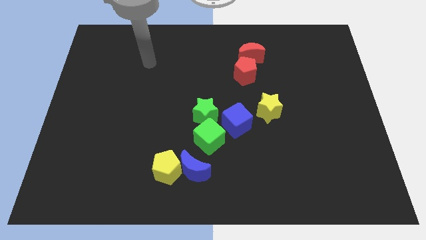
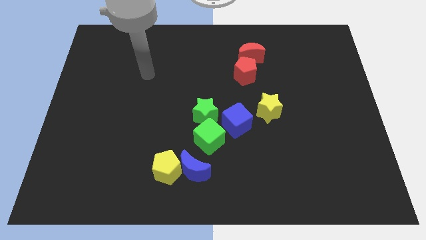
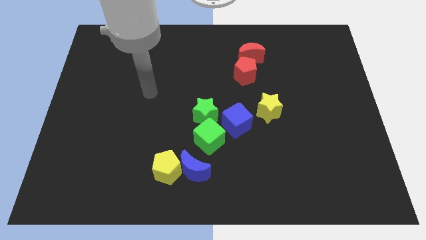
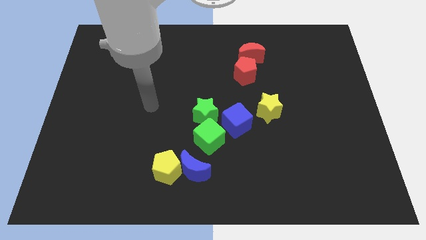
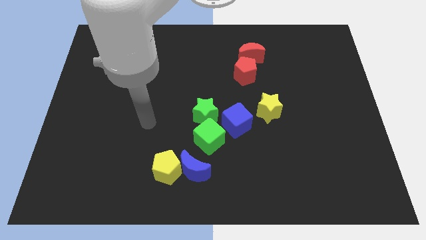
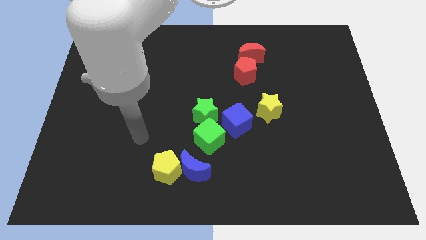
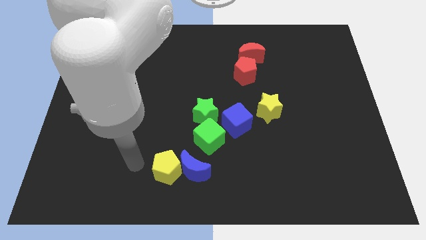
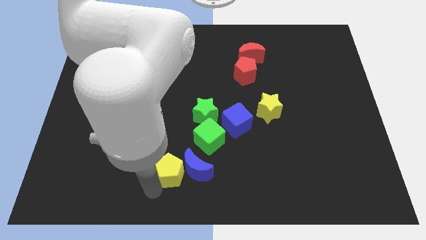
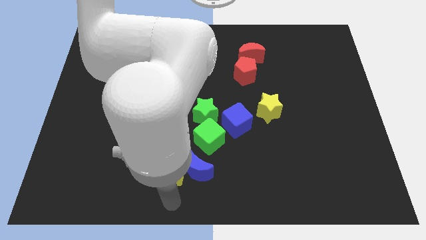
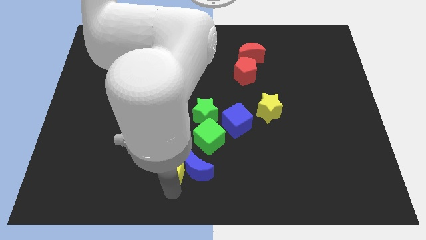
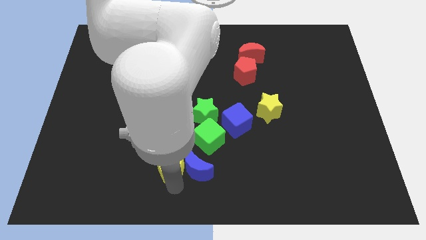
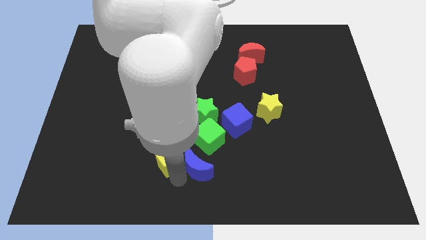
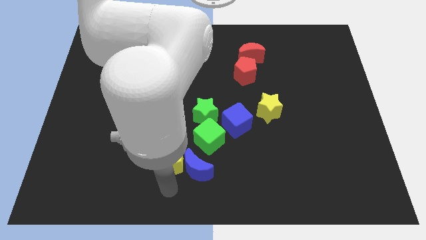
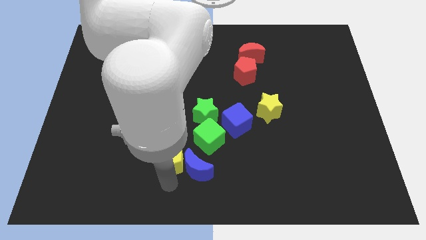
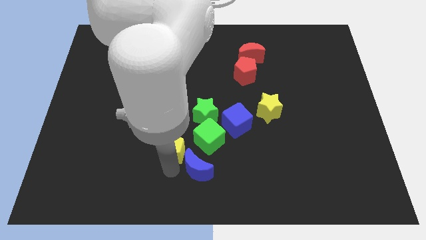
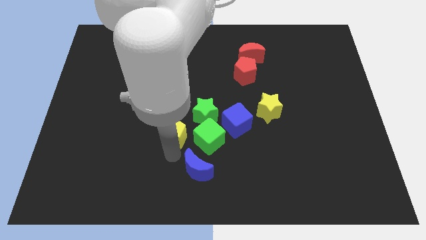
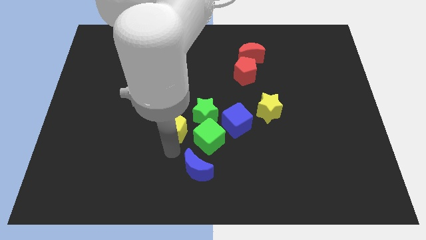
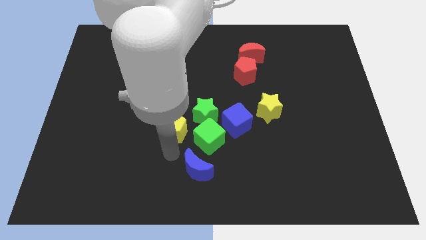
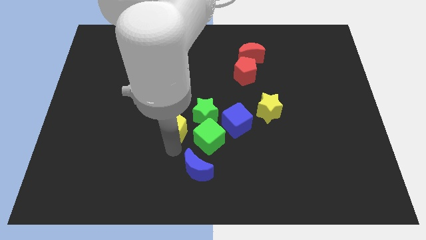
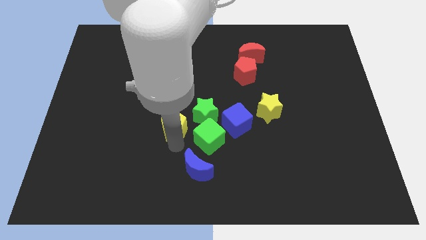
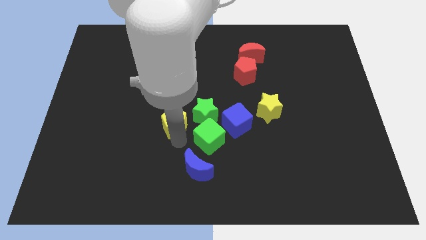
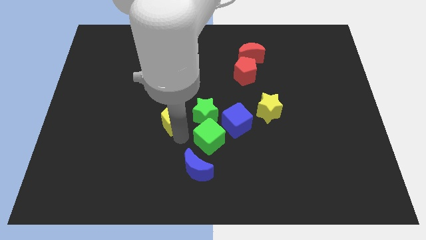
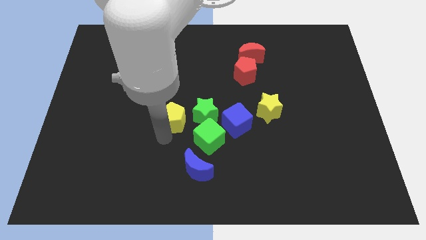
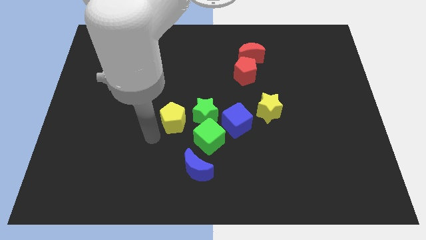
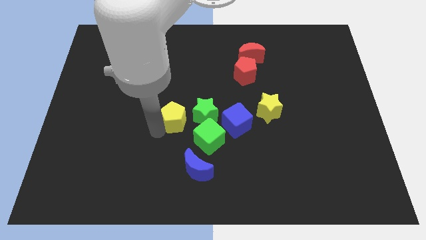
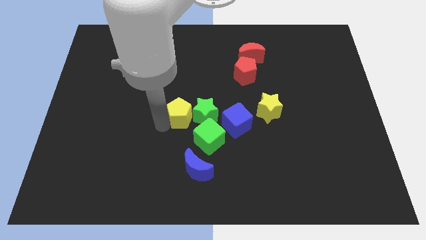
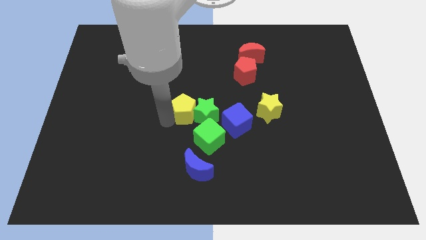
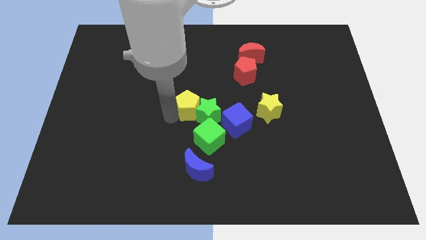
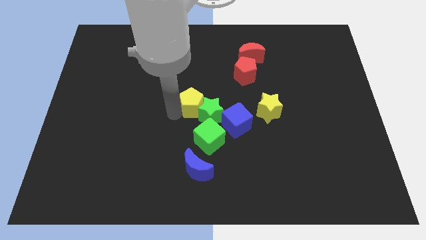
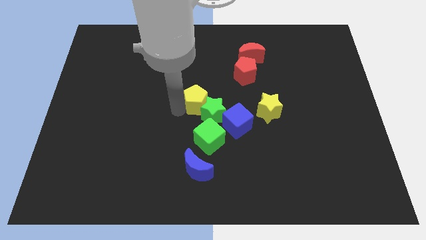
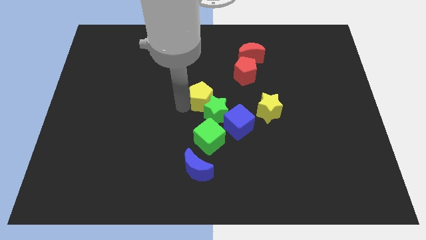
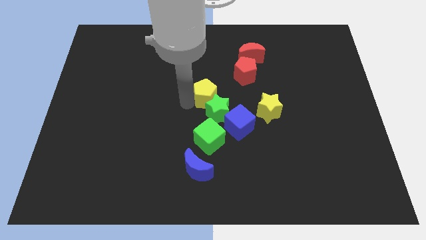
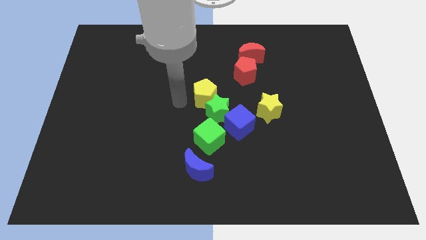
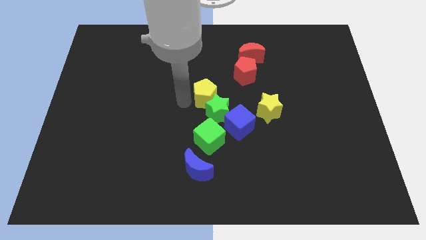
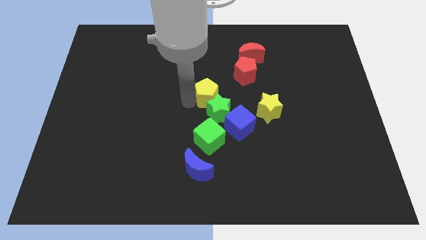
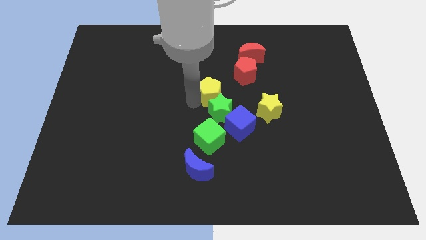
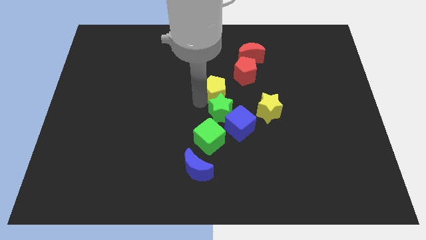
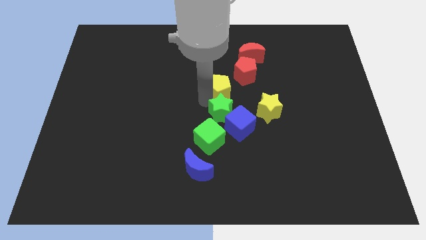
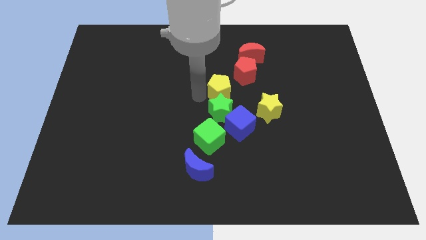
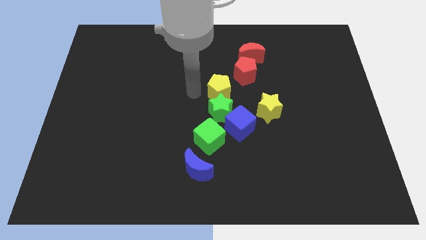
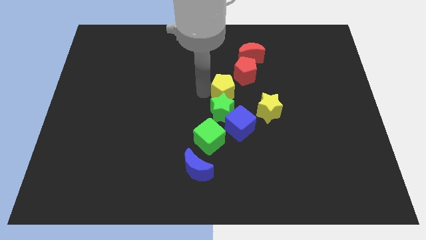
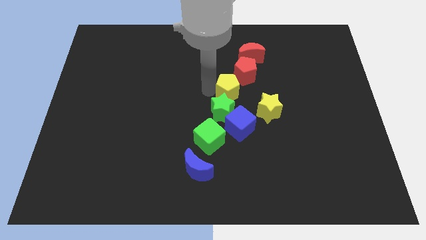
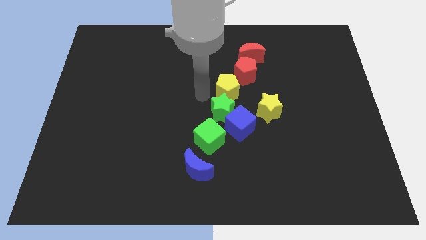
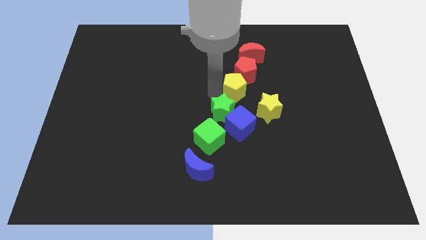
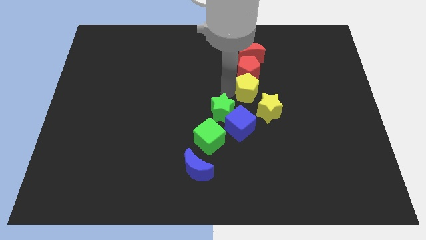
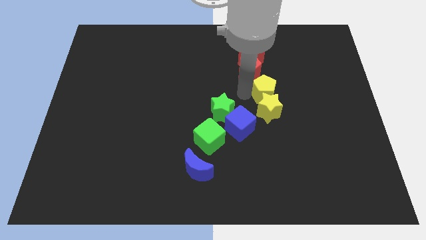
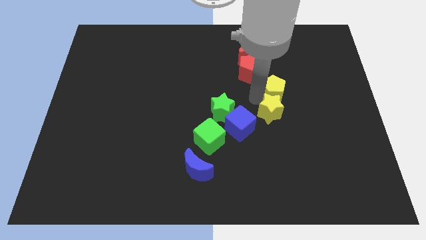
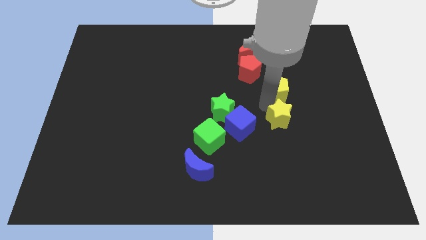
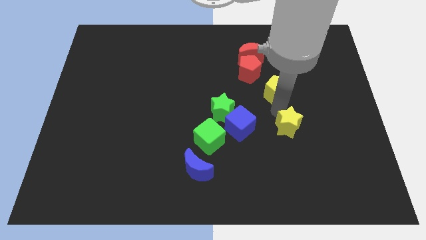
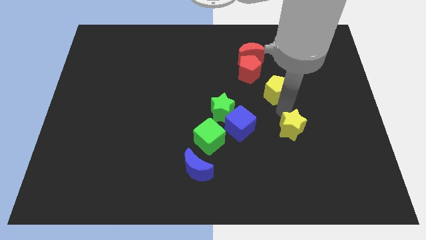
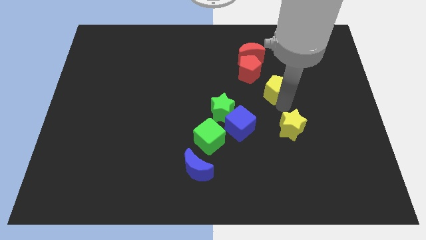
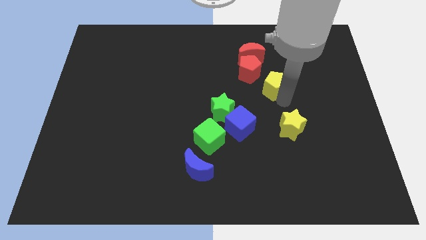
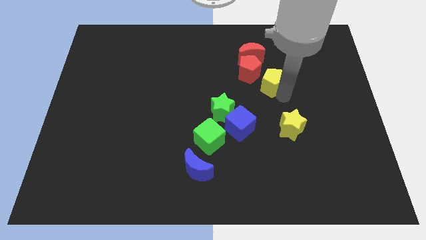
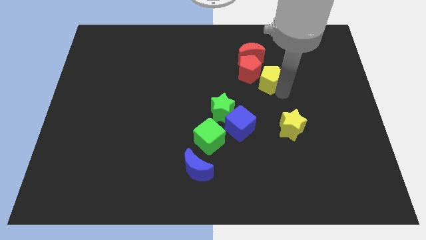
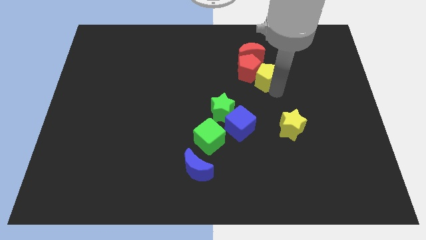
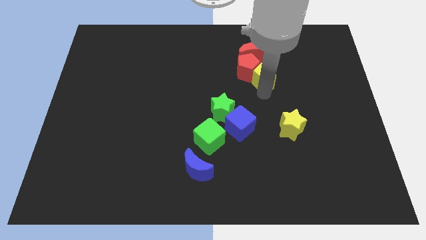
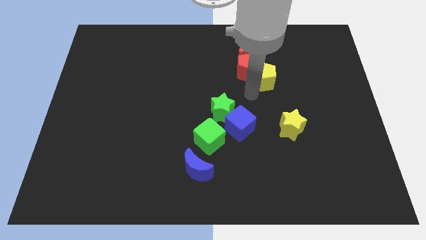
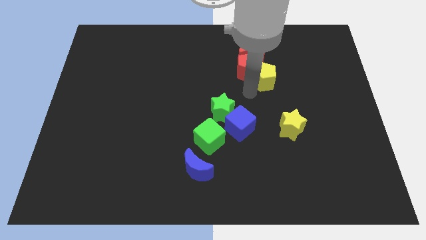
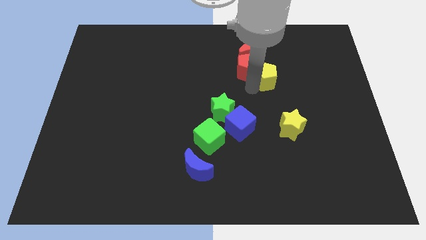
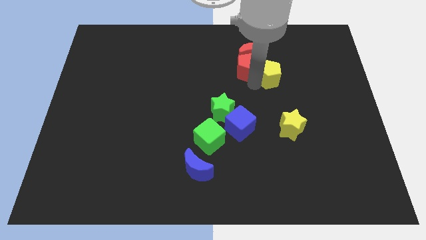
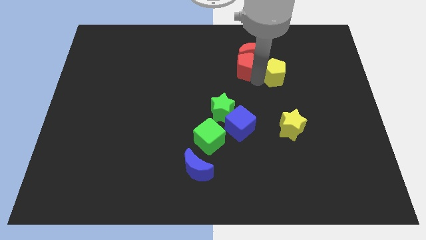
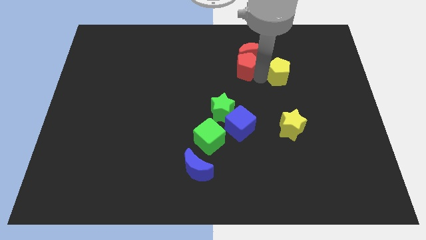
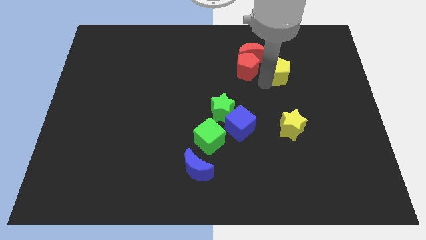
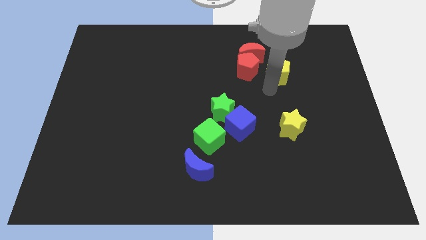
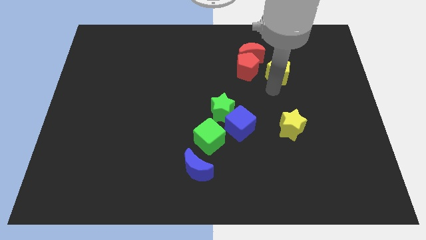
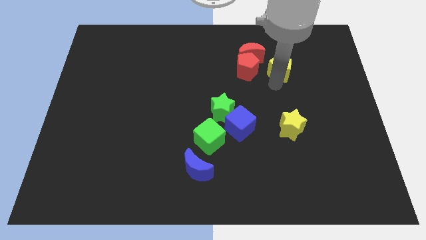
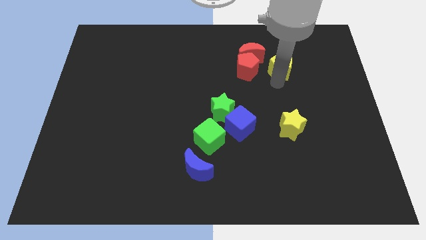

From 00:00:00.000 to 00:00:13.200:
slide the yellow pentagon just right of the red moon
